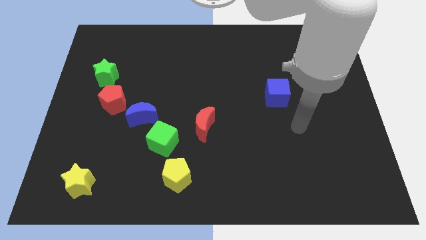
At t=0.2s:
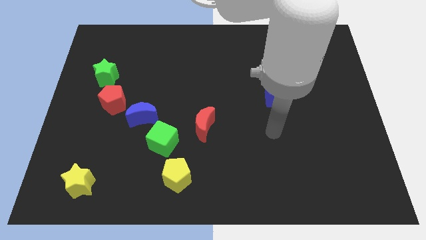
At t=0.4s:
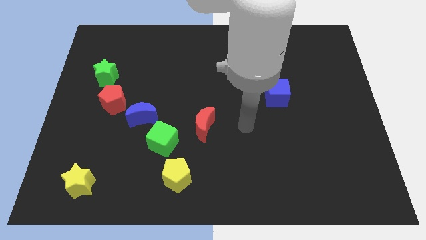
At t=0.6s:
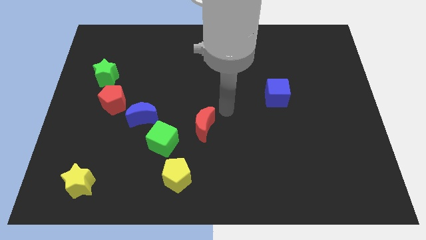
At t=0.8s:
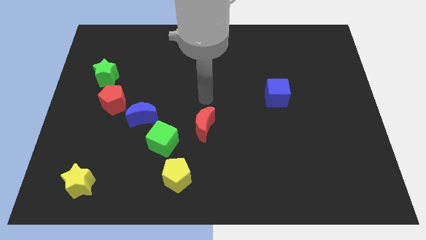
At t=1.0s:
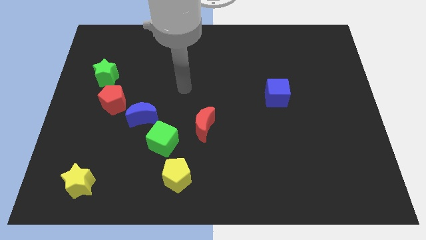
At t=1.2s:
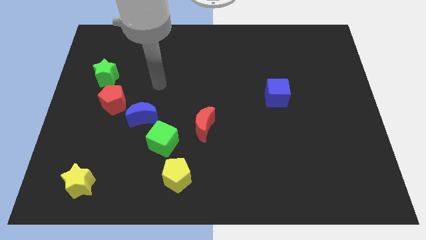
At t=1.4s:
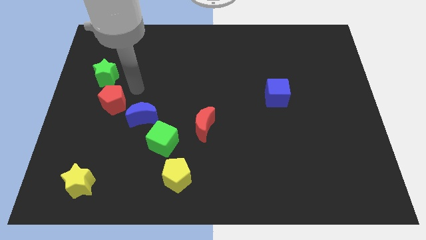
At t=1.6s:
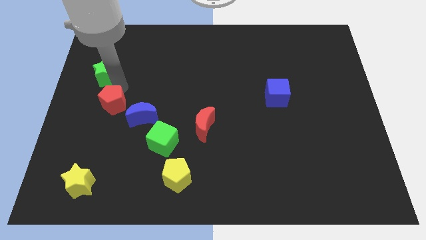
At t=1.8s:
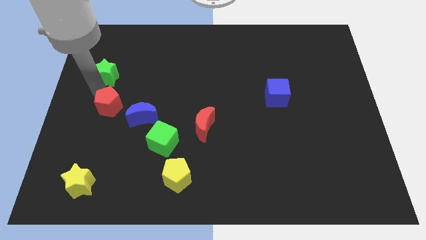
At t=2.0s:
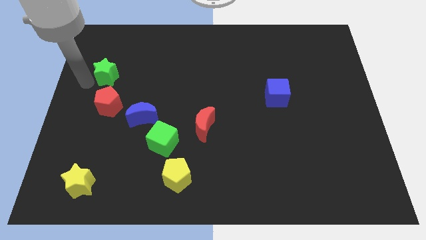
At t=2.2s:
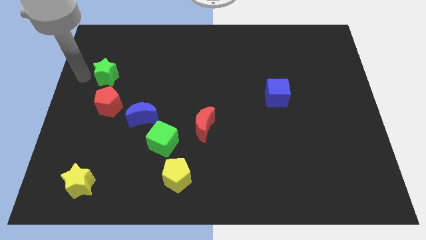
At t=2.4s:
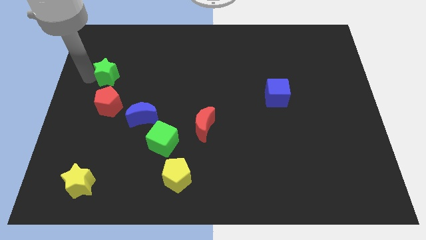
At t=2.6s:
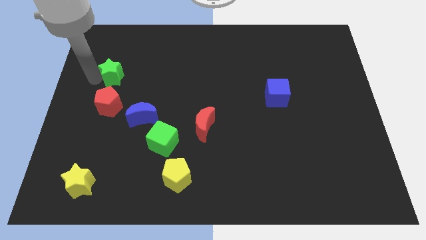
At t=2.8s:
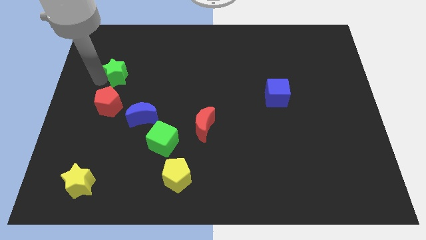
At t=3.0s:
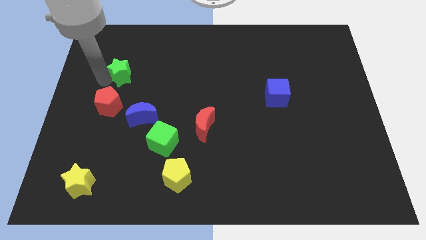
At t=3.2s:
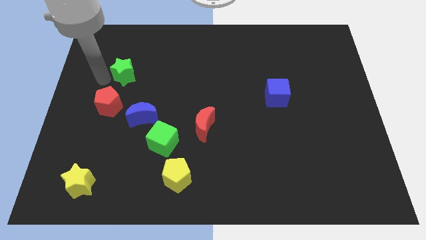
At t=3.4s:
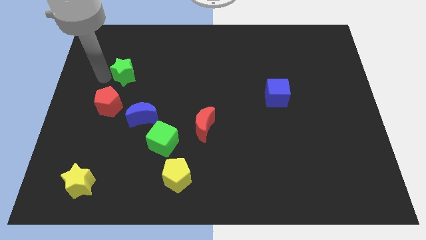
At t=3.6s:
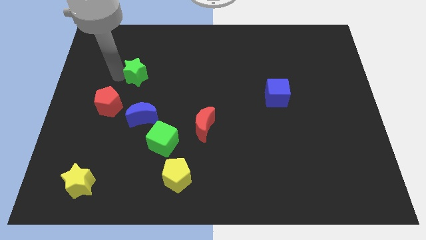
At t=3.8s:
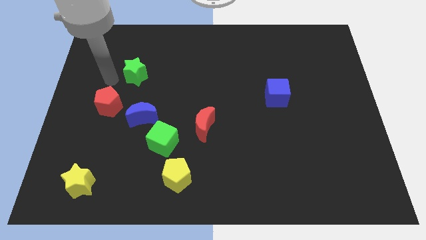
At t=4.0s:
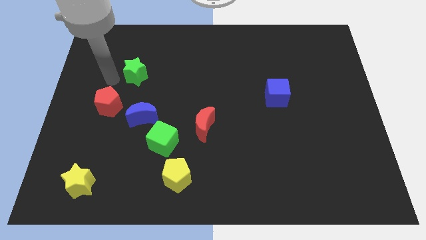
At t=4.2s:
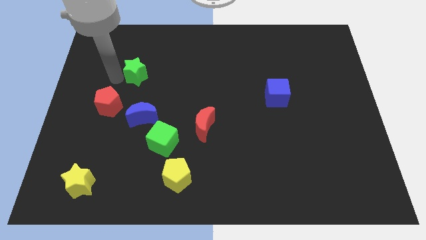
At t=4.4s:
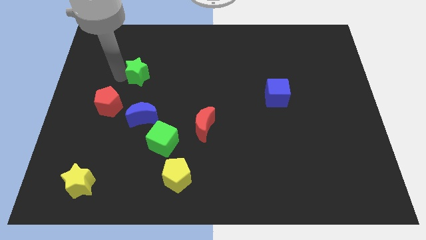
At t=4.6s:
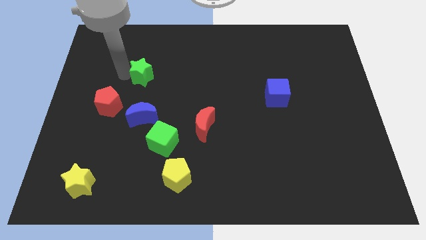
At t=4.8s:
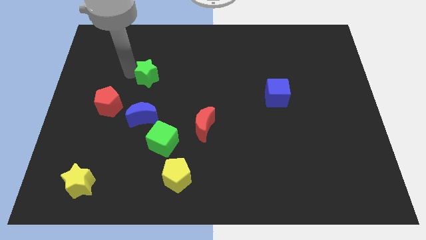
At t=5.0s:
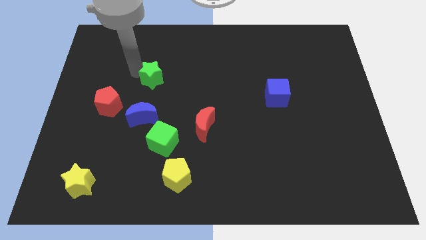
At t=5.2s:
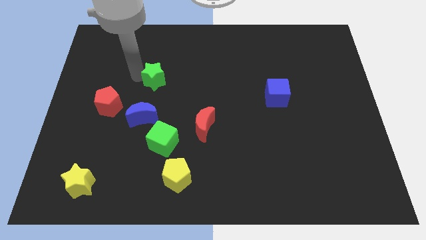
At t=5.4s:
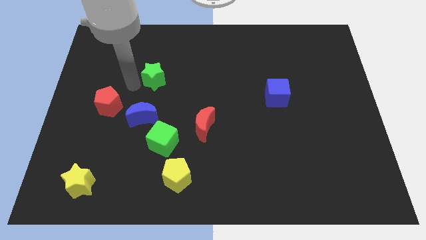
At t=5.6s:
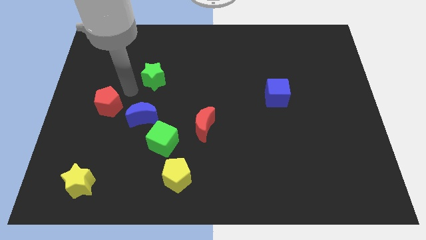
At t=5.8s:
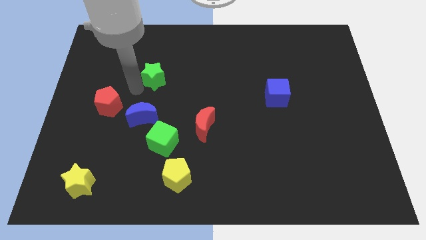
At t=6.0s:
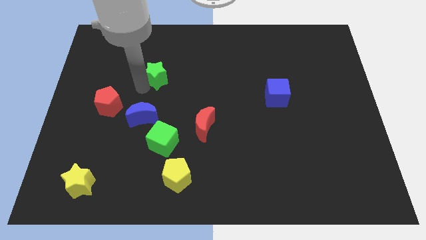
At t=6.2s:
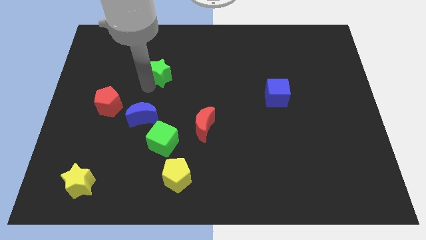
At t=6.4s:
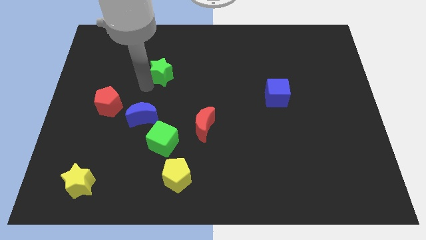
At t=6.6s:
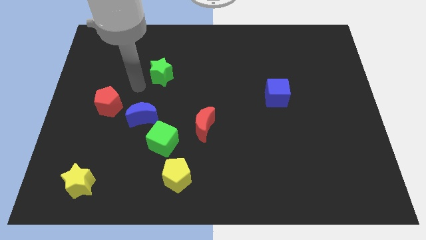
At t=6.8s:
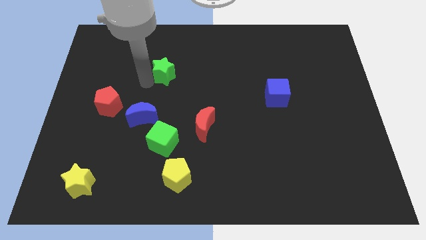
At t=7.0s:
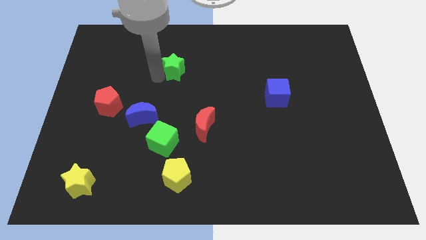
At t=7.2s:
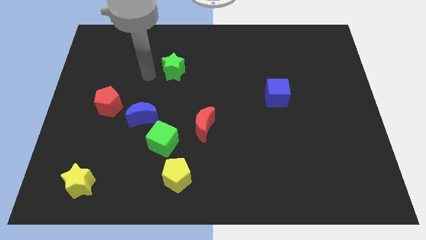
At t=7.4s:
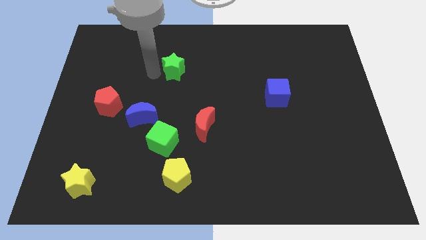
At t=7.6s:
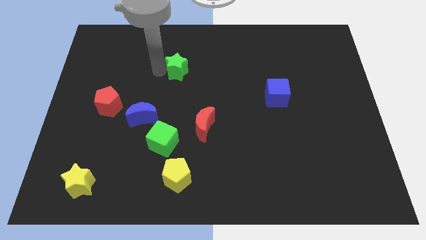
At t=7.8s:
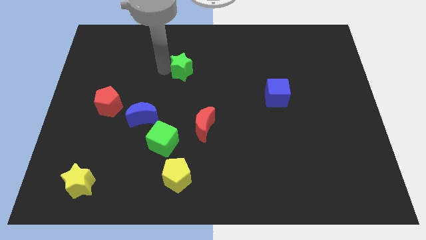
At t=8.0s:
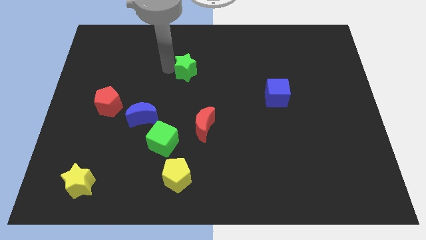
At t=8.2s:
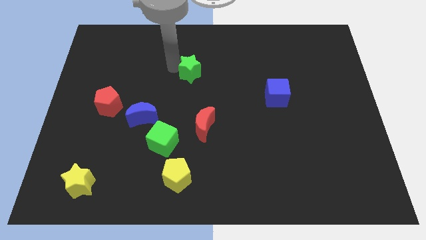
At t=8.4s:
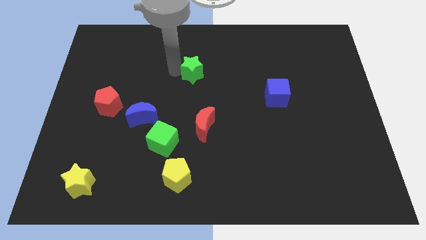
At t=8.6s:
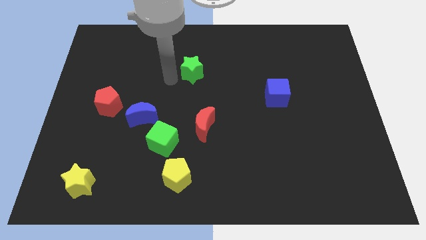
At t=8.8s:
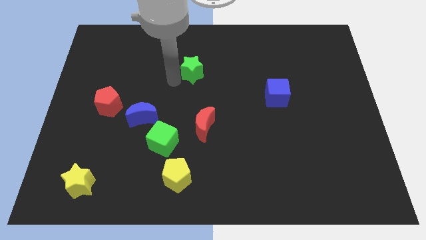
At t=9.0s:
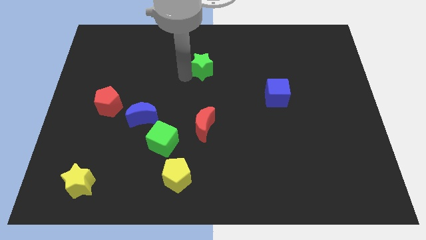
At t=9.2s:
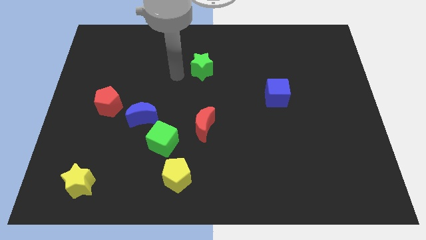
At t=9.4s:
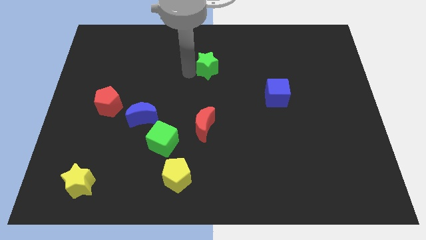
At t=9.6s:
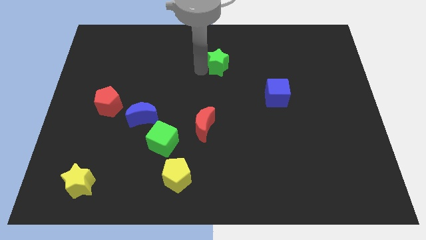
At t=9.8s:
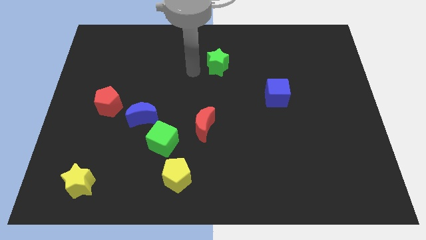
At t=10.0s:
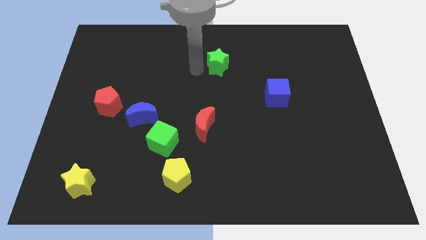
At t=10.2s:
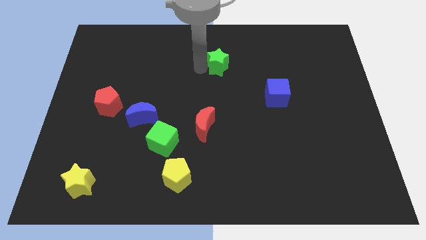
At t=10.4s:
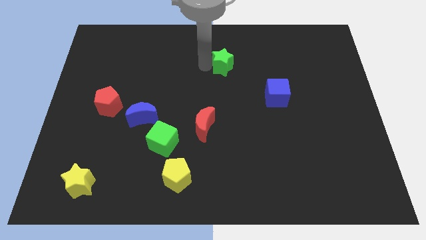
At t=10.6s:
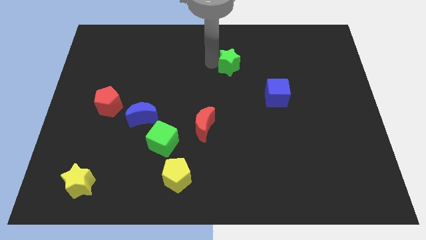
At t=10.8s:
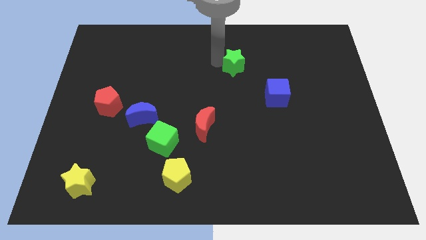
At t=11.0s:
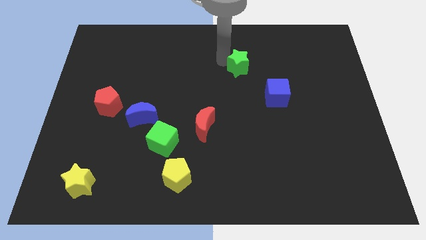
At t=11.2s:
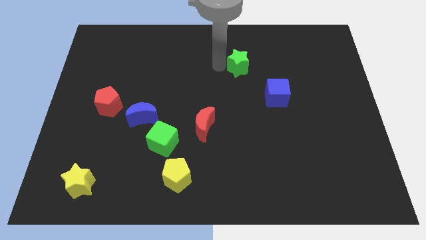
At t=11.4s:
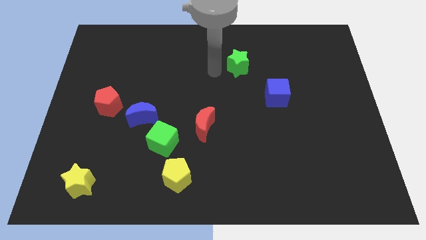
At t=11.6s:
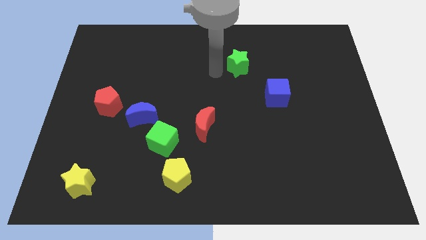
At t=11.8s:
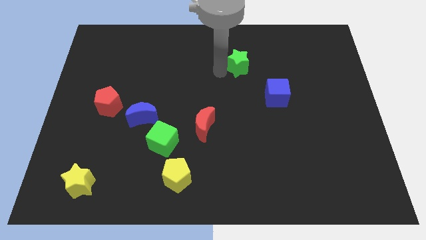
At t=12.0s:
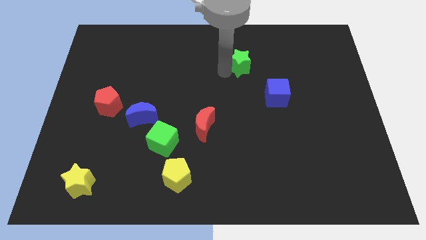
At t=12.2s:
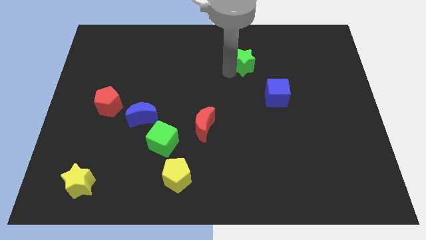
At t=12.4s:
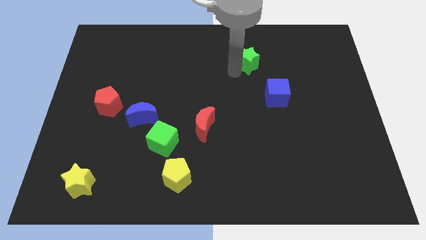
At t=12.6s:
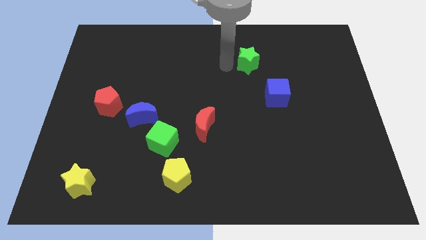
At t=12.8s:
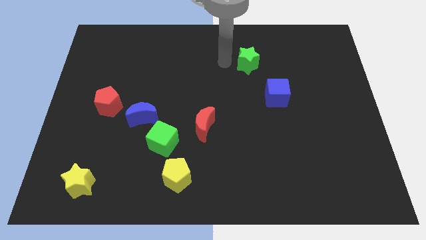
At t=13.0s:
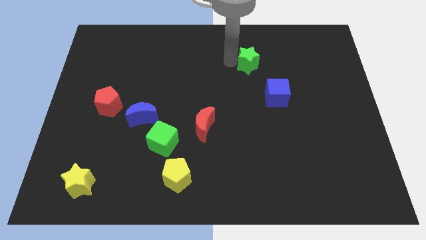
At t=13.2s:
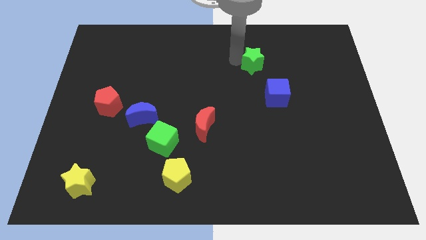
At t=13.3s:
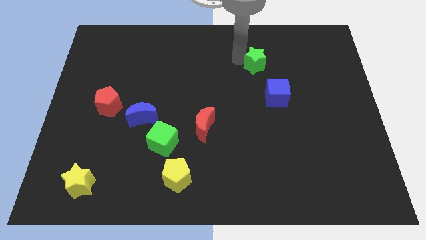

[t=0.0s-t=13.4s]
push the green star to the top of the blue cube

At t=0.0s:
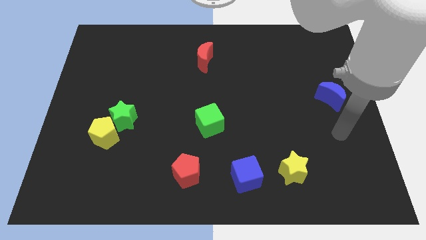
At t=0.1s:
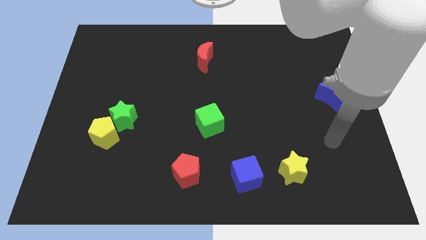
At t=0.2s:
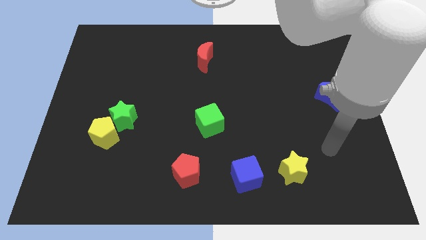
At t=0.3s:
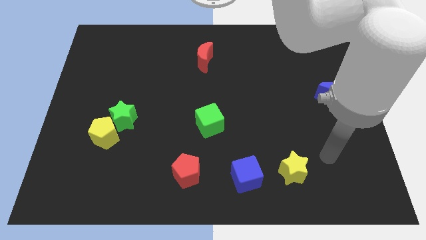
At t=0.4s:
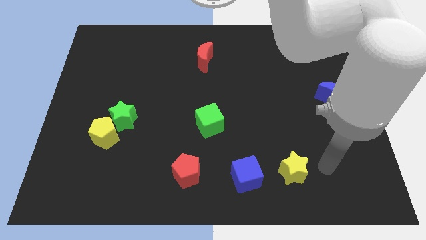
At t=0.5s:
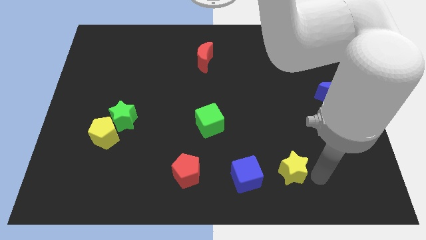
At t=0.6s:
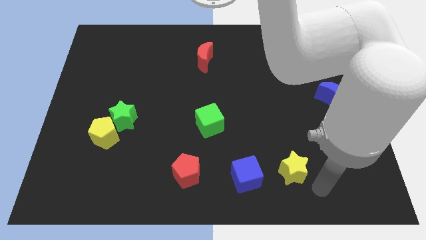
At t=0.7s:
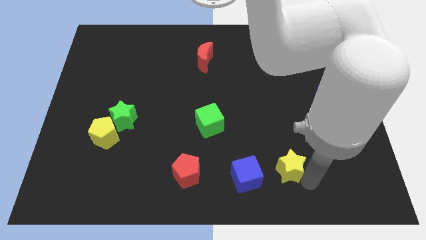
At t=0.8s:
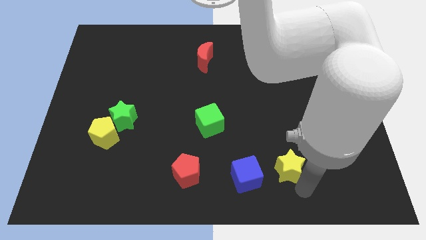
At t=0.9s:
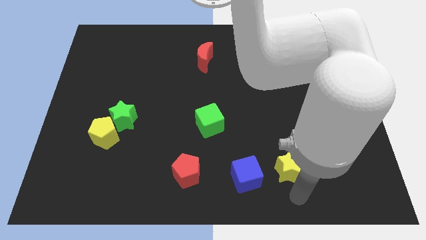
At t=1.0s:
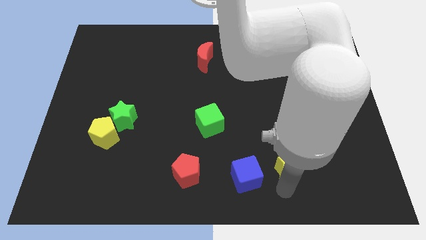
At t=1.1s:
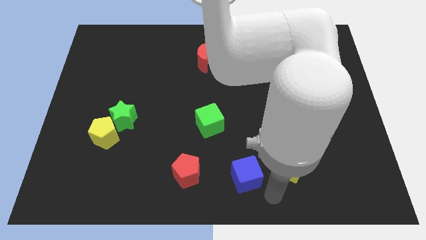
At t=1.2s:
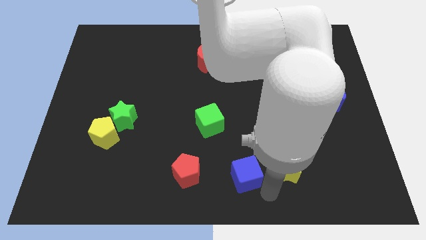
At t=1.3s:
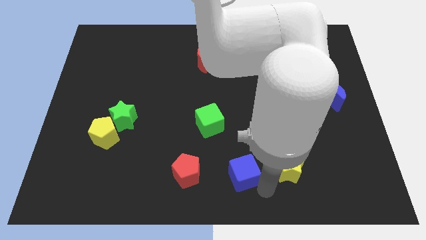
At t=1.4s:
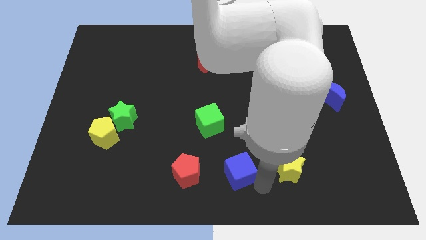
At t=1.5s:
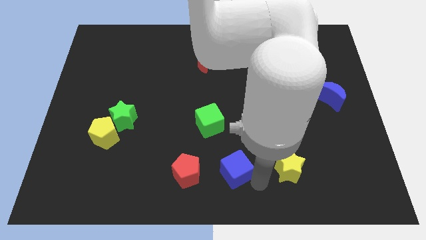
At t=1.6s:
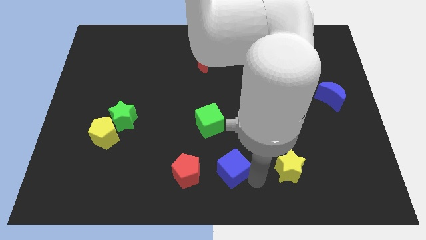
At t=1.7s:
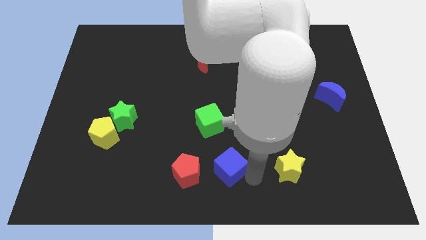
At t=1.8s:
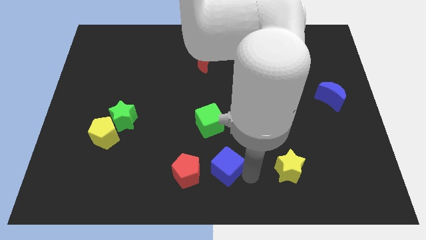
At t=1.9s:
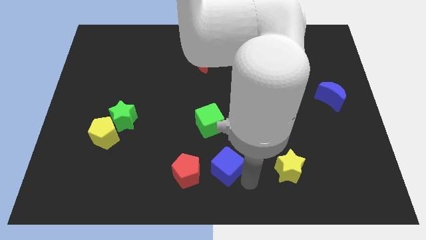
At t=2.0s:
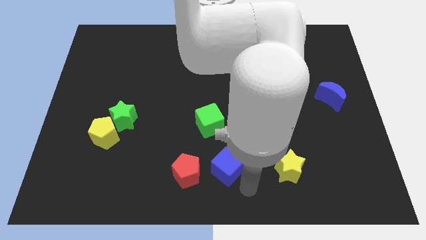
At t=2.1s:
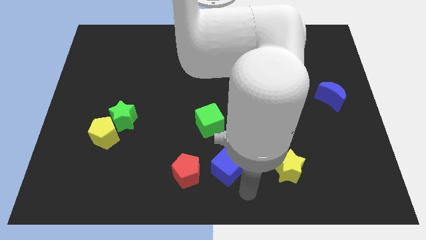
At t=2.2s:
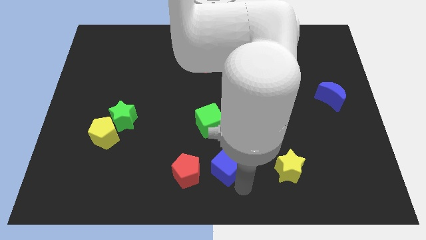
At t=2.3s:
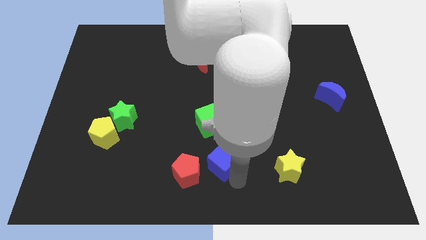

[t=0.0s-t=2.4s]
push the blue cube diagonally up and to the right of the red pentagon
